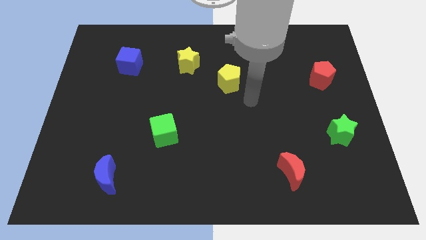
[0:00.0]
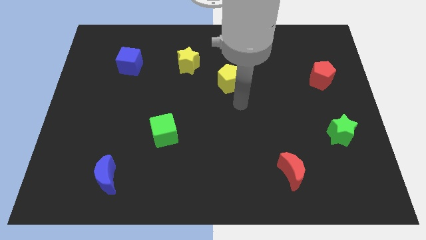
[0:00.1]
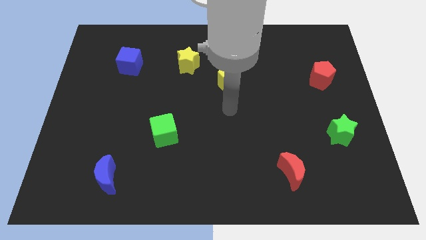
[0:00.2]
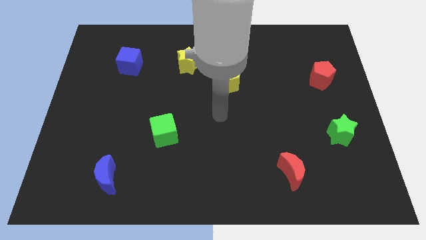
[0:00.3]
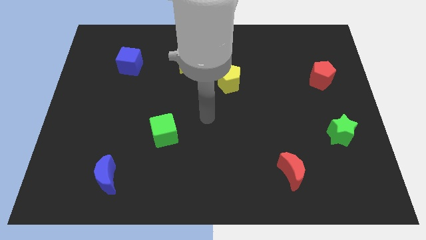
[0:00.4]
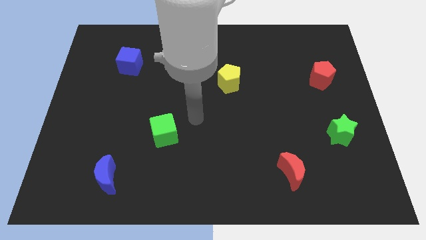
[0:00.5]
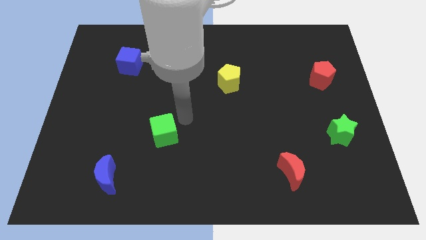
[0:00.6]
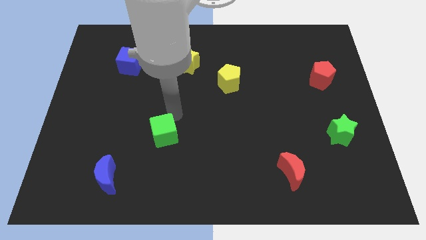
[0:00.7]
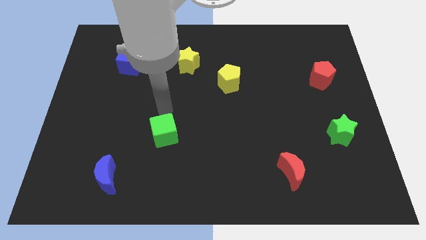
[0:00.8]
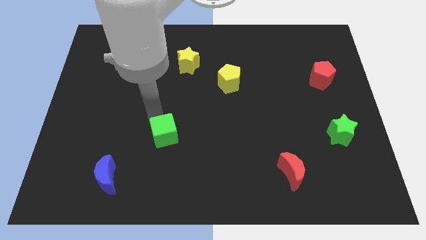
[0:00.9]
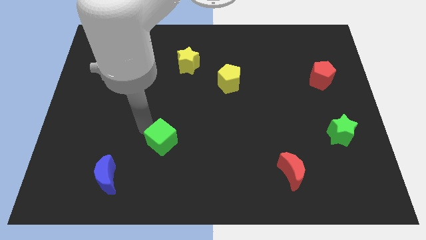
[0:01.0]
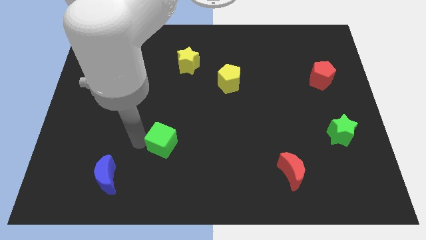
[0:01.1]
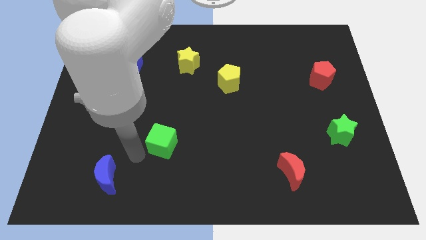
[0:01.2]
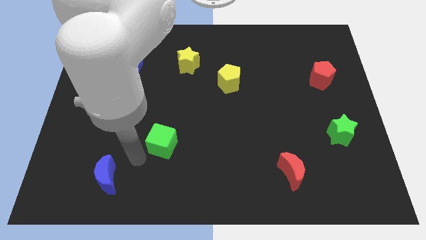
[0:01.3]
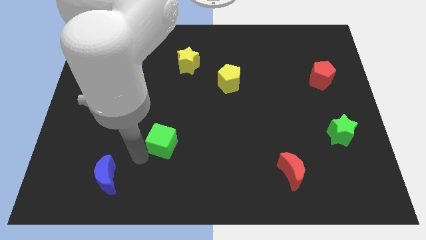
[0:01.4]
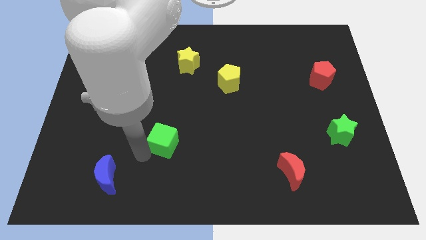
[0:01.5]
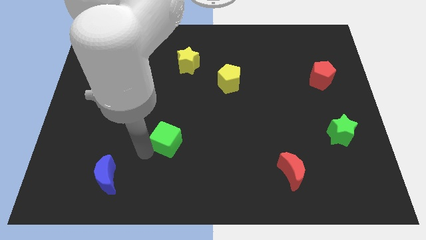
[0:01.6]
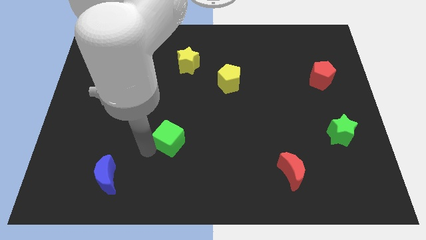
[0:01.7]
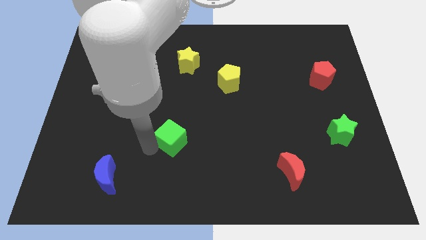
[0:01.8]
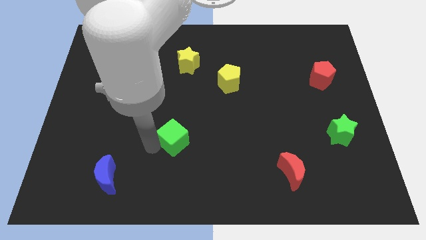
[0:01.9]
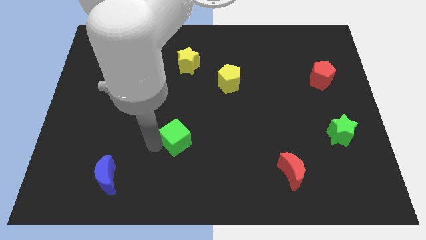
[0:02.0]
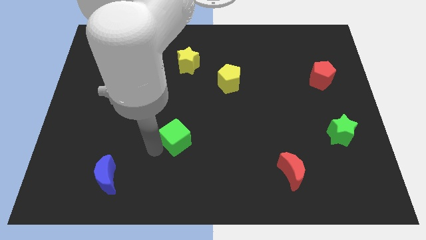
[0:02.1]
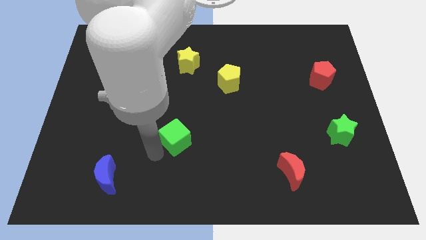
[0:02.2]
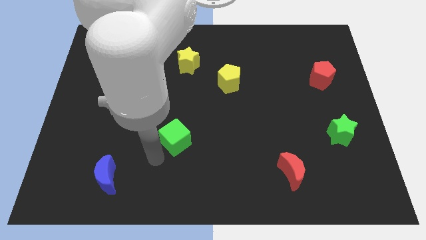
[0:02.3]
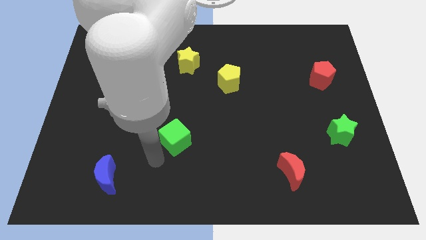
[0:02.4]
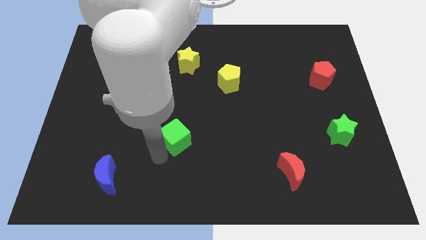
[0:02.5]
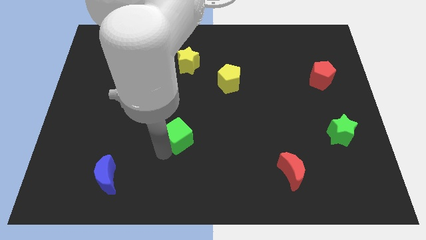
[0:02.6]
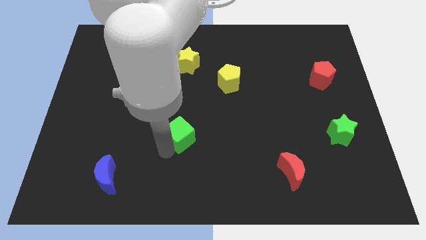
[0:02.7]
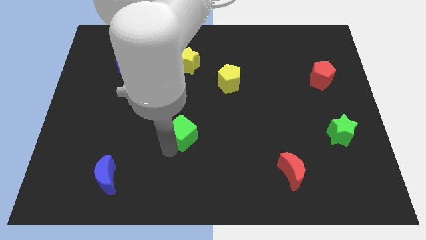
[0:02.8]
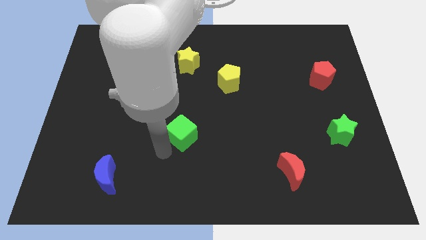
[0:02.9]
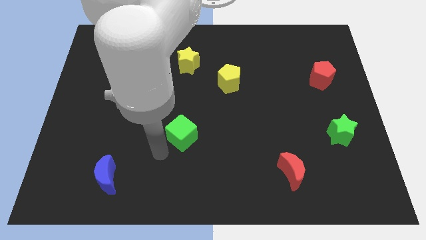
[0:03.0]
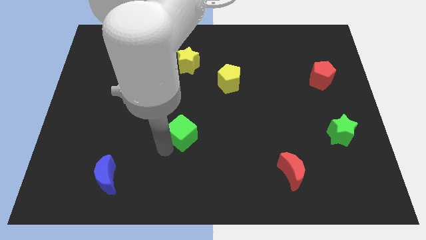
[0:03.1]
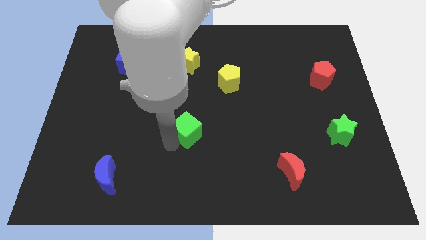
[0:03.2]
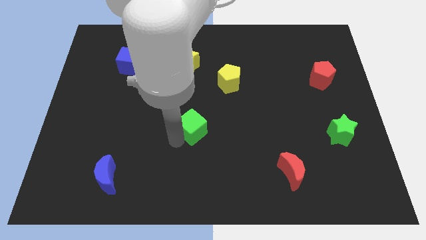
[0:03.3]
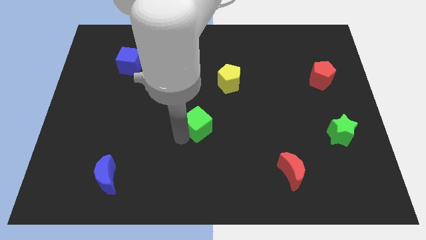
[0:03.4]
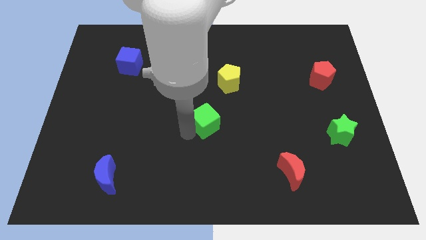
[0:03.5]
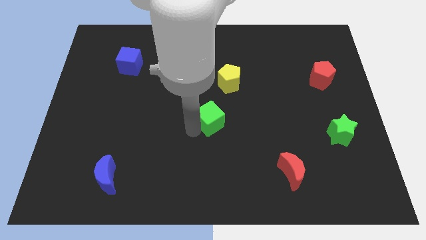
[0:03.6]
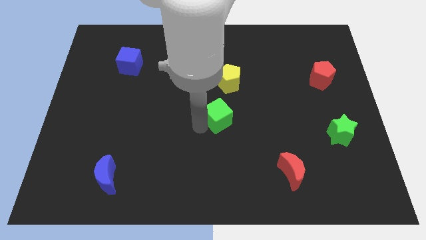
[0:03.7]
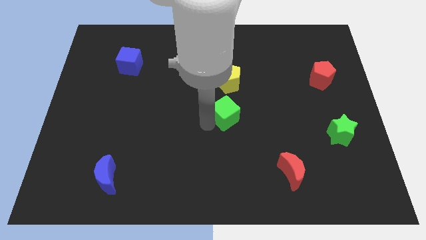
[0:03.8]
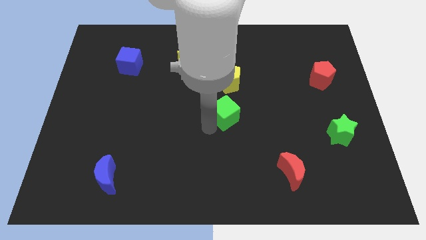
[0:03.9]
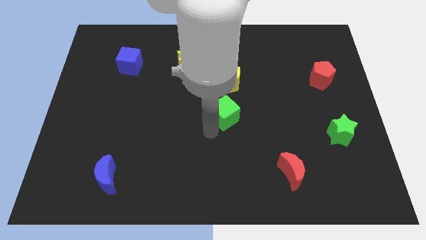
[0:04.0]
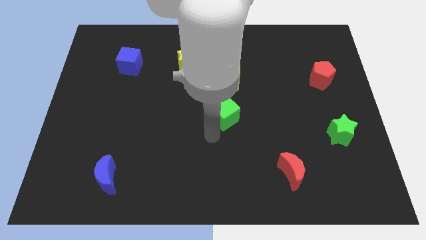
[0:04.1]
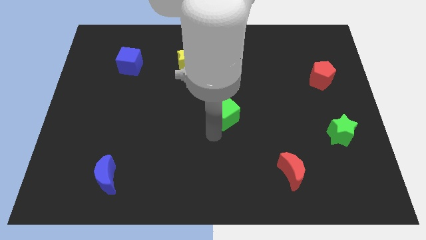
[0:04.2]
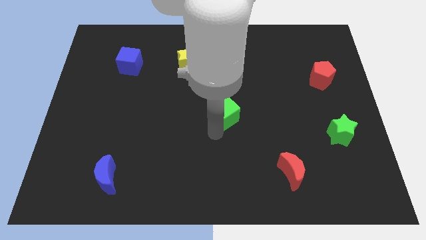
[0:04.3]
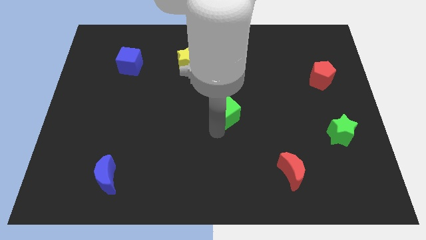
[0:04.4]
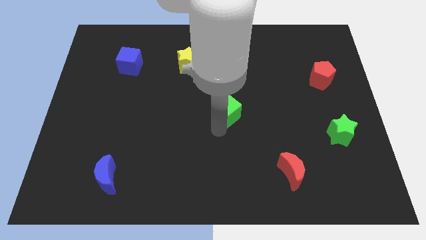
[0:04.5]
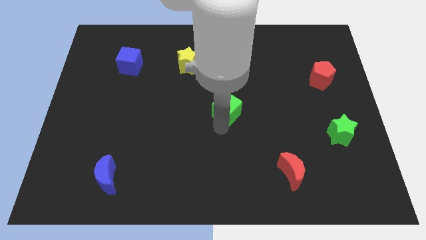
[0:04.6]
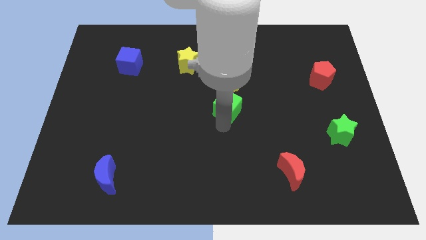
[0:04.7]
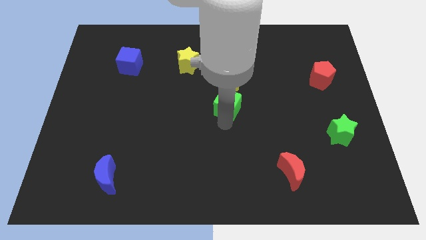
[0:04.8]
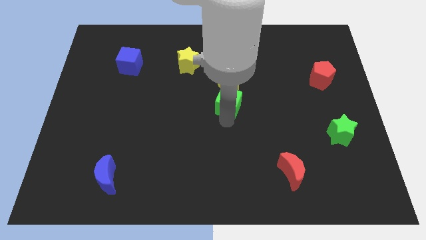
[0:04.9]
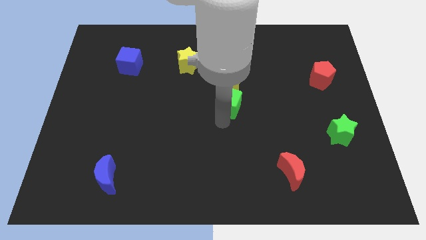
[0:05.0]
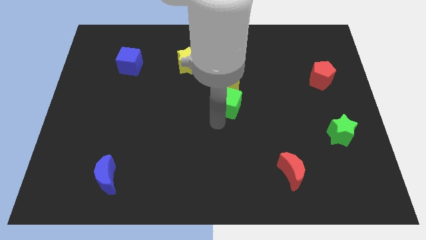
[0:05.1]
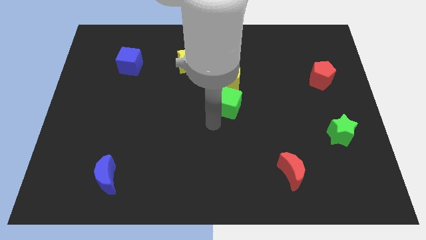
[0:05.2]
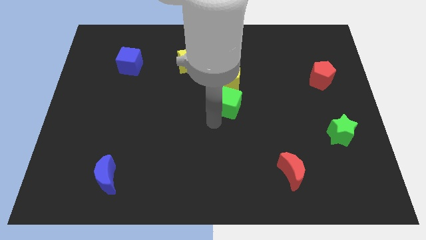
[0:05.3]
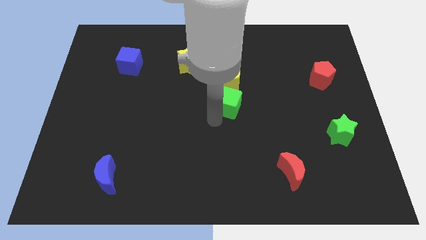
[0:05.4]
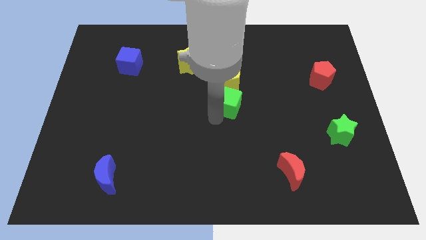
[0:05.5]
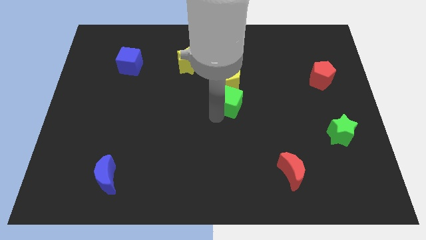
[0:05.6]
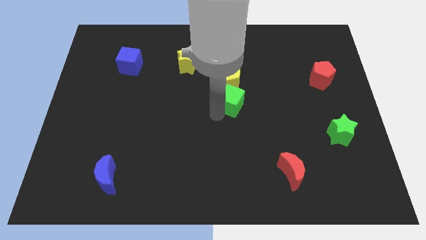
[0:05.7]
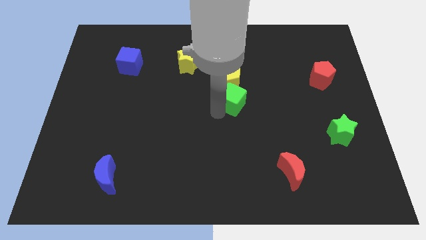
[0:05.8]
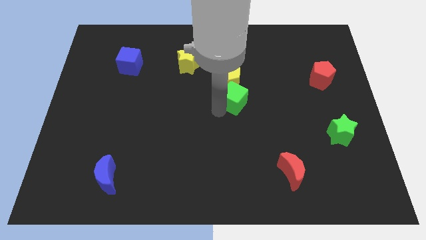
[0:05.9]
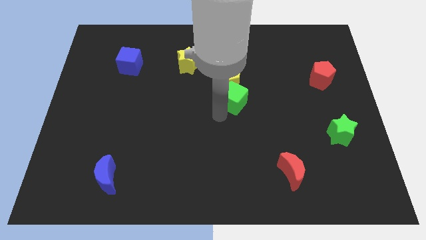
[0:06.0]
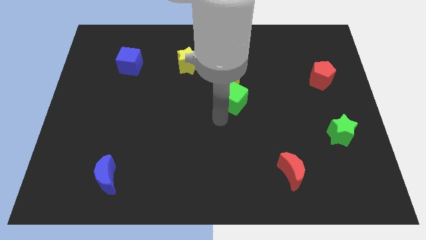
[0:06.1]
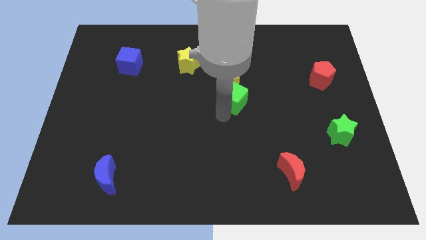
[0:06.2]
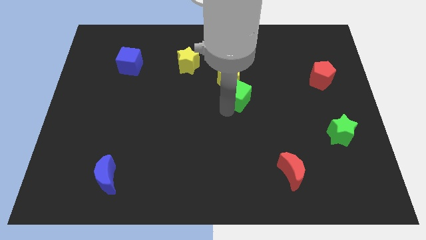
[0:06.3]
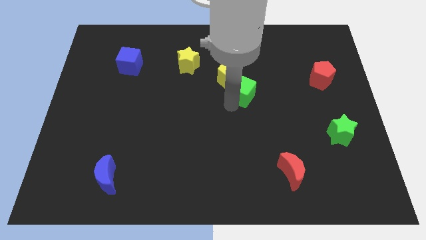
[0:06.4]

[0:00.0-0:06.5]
move the green cube upwards and to the right diagonally

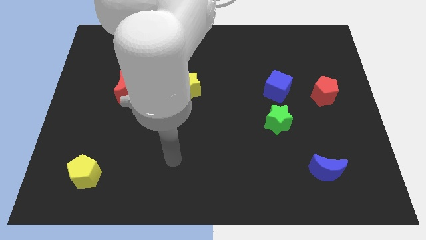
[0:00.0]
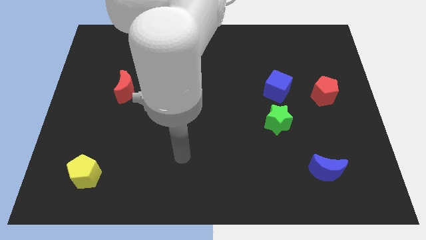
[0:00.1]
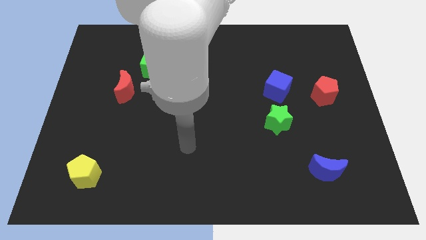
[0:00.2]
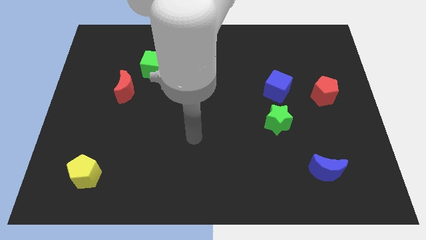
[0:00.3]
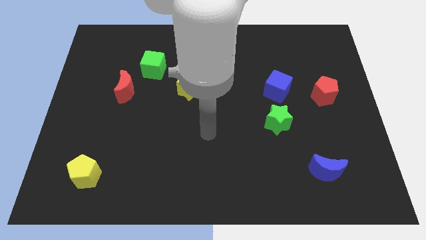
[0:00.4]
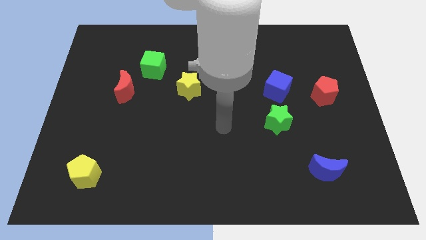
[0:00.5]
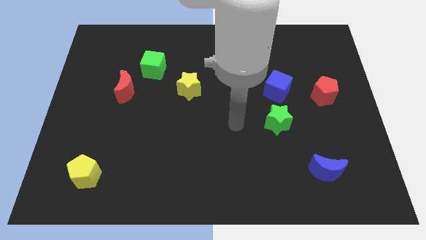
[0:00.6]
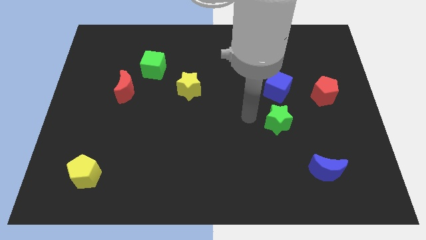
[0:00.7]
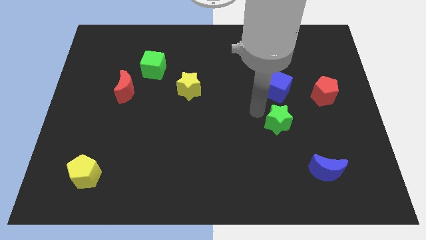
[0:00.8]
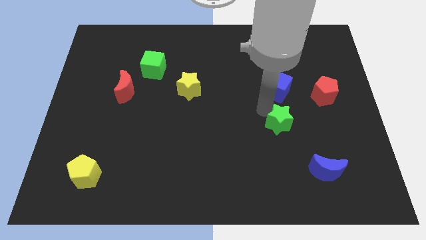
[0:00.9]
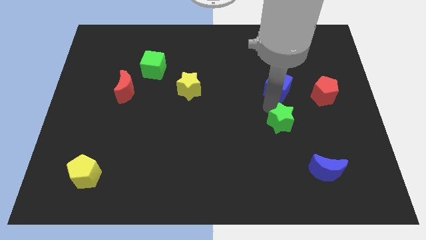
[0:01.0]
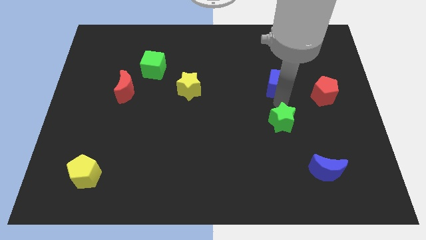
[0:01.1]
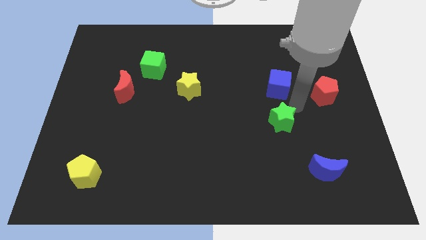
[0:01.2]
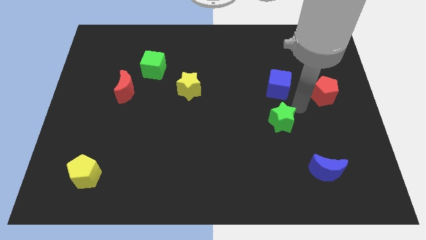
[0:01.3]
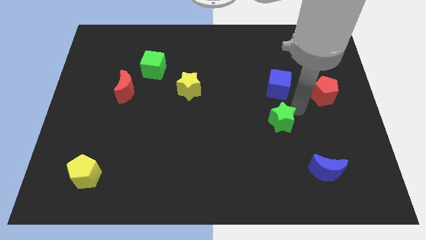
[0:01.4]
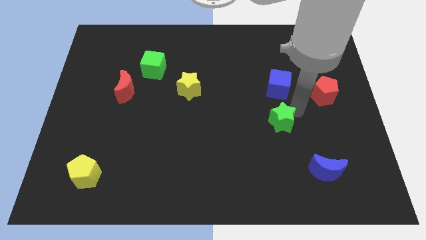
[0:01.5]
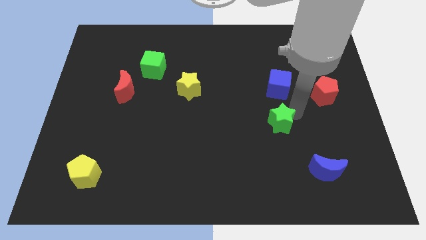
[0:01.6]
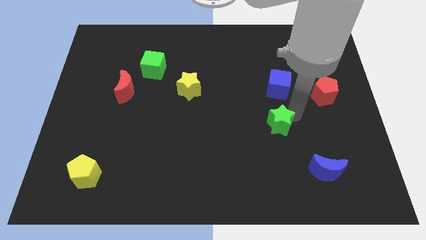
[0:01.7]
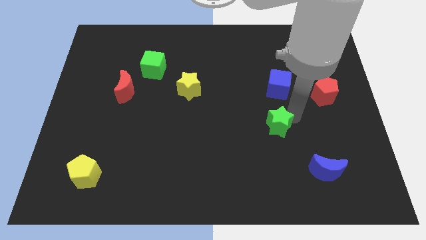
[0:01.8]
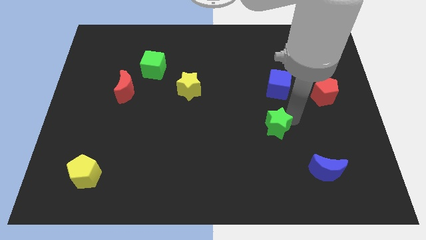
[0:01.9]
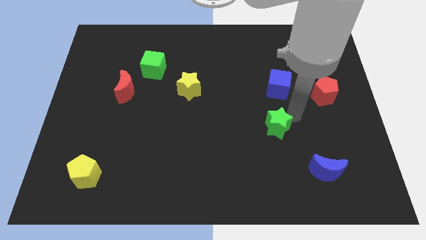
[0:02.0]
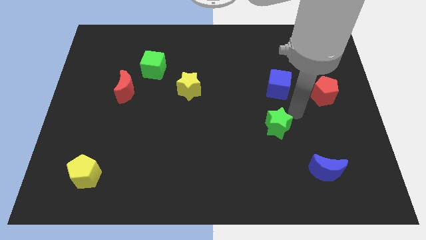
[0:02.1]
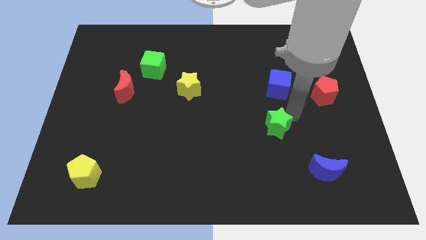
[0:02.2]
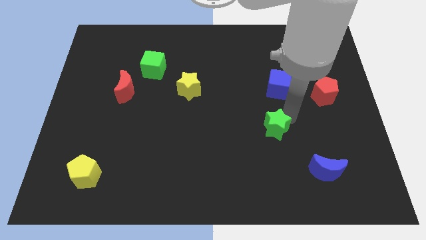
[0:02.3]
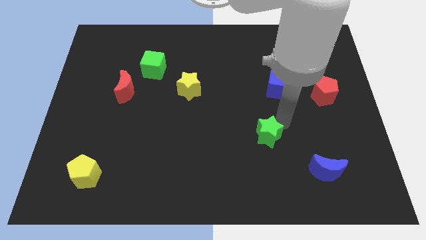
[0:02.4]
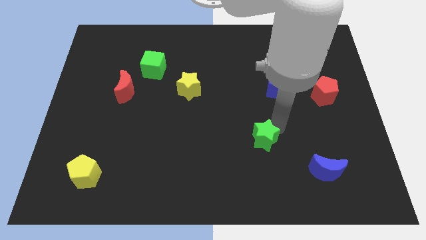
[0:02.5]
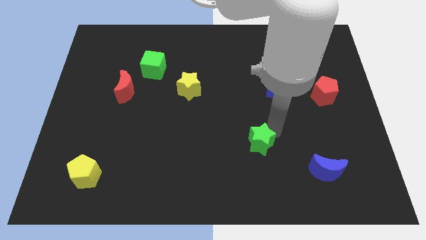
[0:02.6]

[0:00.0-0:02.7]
push the green star somewhat diagonally down and left
